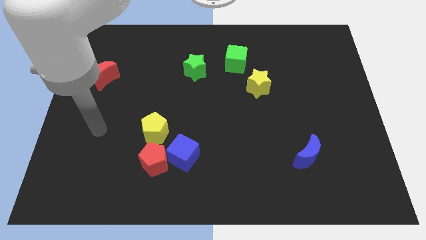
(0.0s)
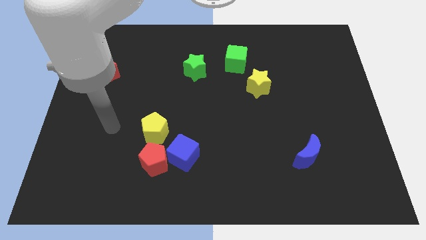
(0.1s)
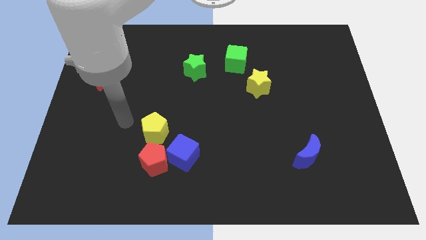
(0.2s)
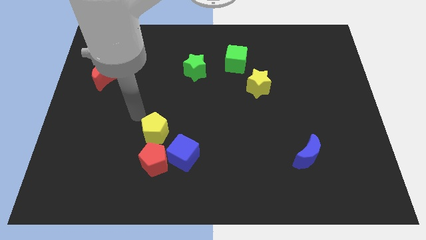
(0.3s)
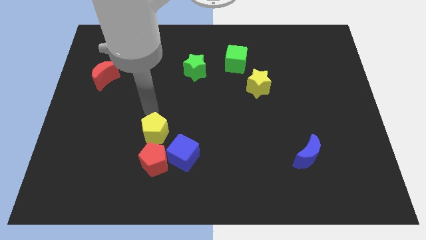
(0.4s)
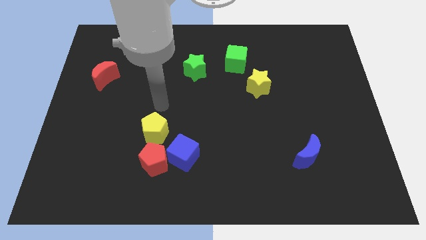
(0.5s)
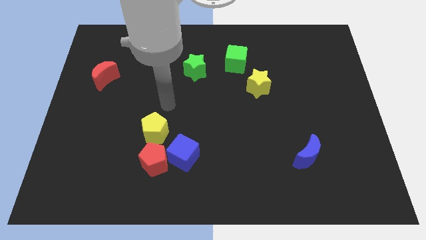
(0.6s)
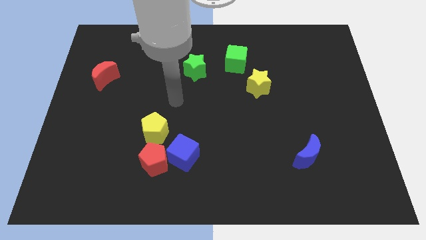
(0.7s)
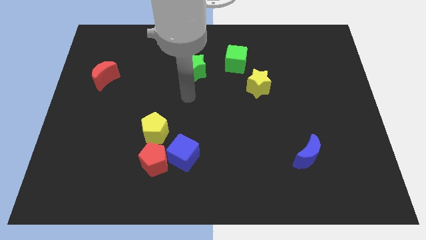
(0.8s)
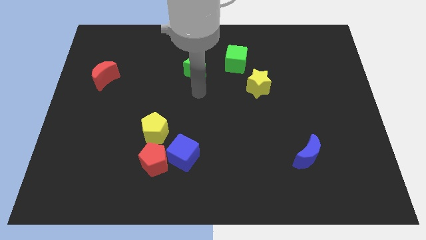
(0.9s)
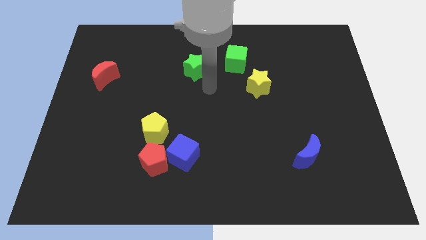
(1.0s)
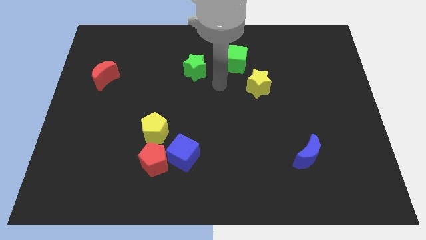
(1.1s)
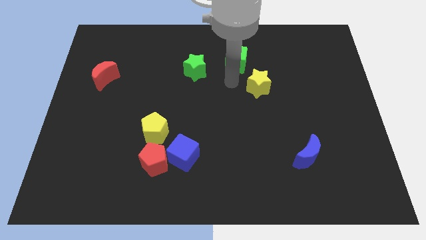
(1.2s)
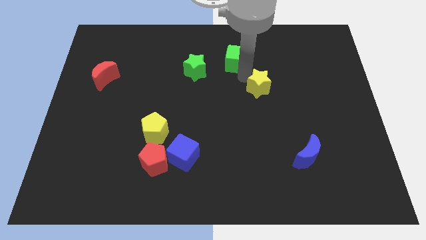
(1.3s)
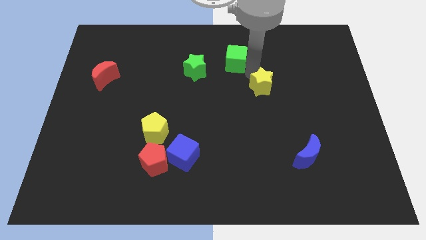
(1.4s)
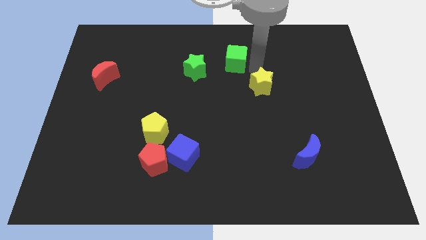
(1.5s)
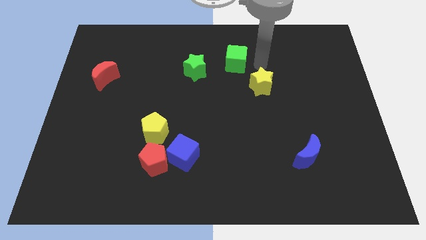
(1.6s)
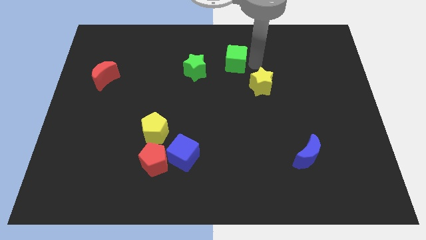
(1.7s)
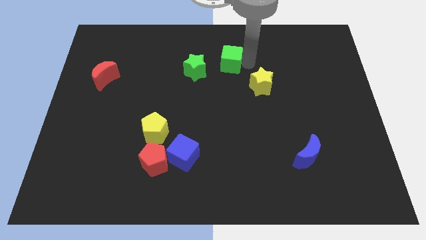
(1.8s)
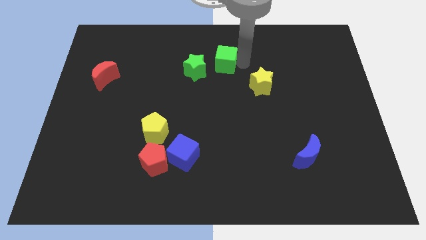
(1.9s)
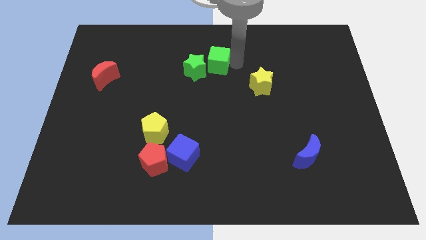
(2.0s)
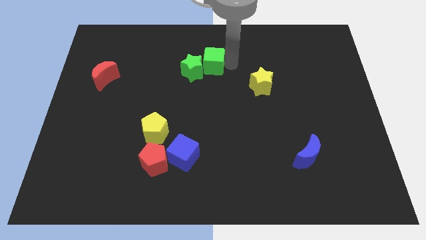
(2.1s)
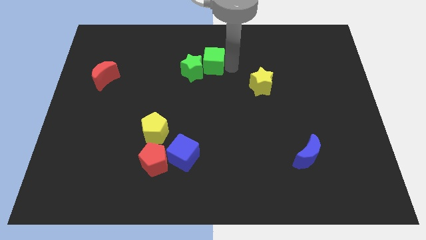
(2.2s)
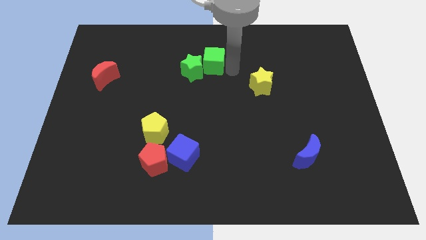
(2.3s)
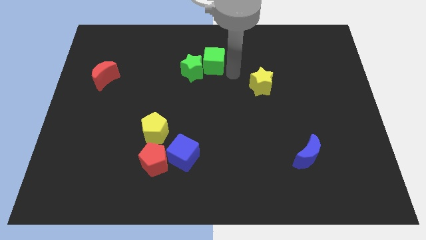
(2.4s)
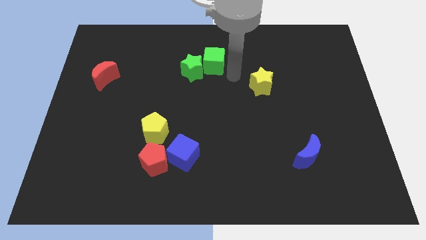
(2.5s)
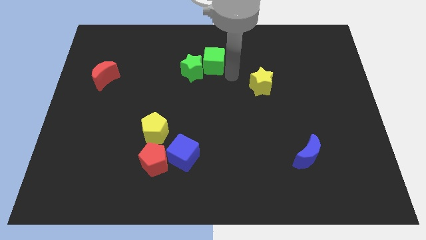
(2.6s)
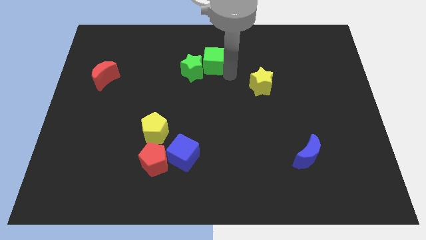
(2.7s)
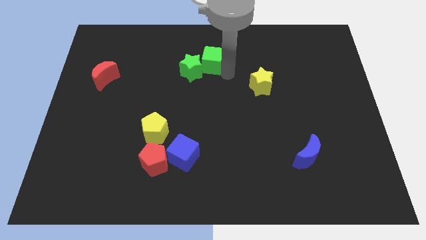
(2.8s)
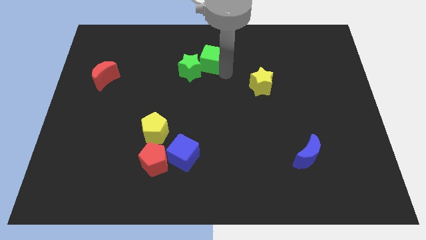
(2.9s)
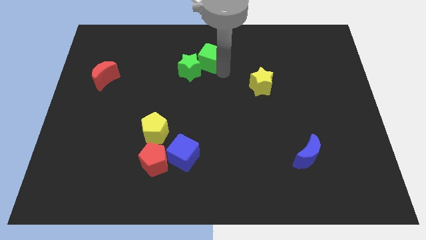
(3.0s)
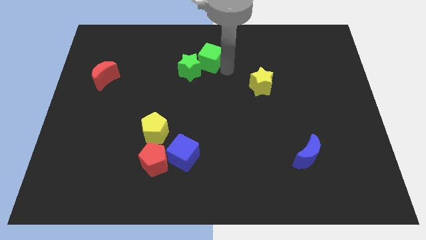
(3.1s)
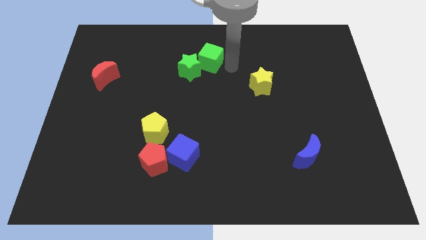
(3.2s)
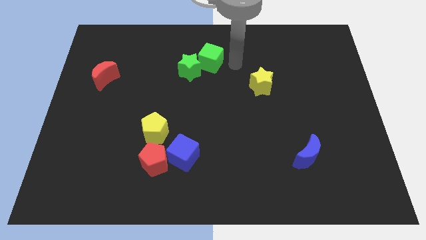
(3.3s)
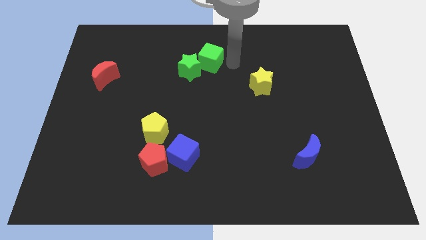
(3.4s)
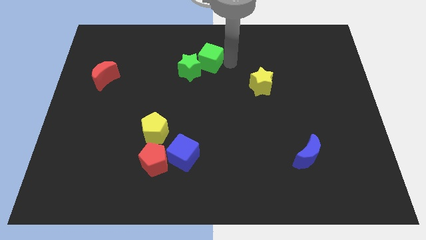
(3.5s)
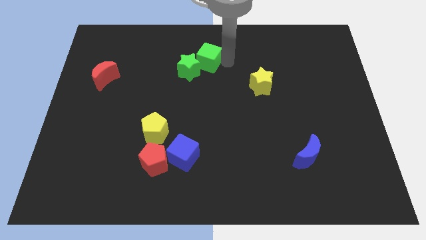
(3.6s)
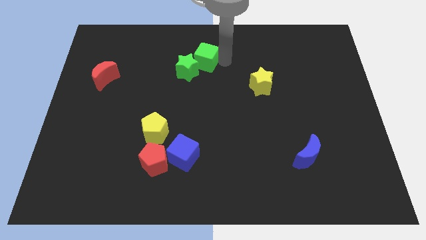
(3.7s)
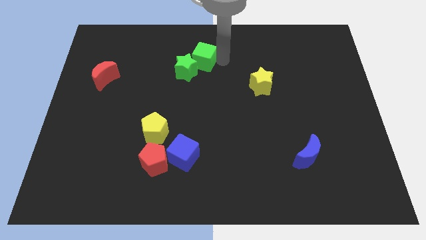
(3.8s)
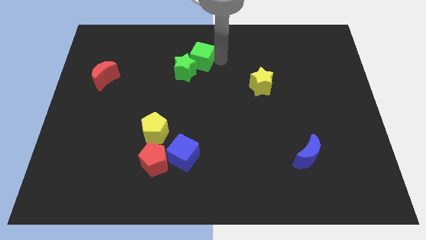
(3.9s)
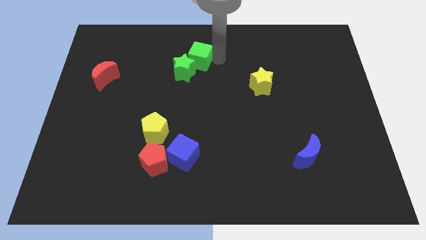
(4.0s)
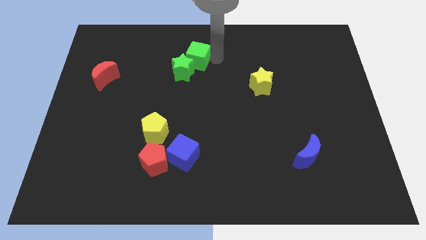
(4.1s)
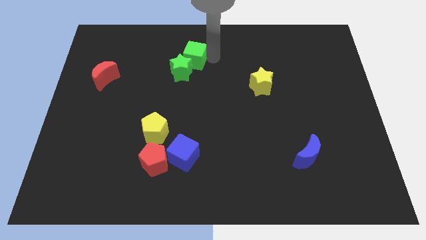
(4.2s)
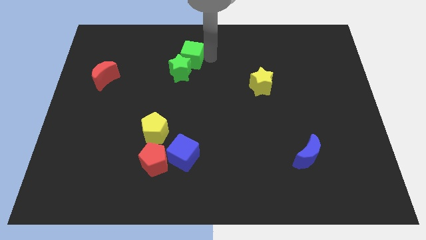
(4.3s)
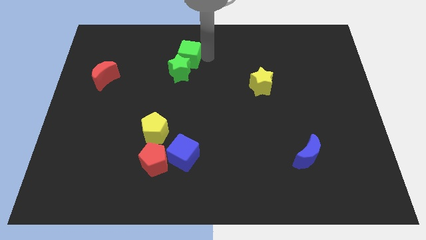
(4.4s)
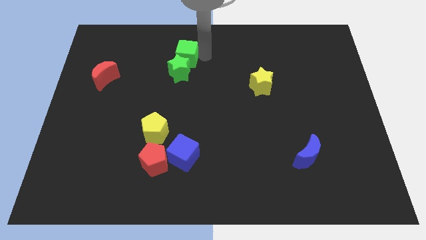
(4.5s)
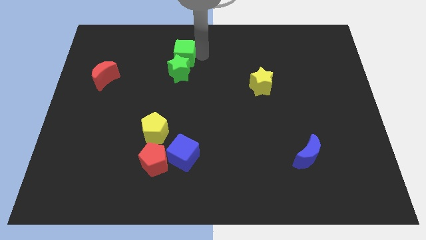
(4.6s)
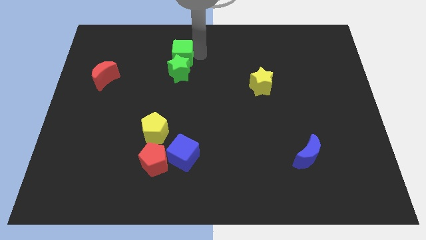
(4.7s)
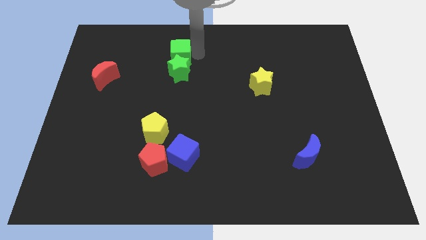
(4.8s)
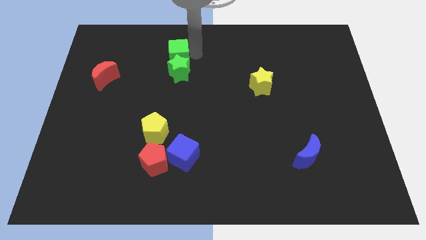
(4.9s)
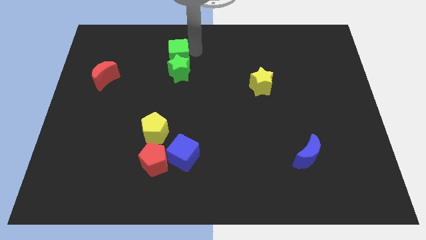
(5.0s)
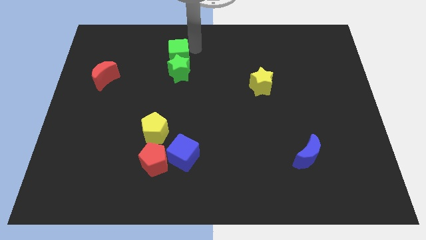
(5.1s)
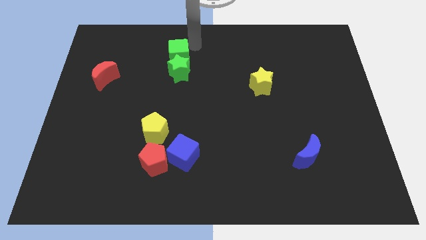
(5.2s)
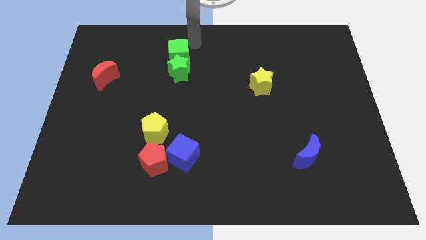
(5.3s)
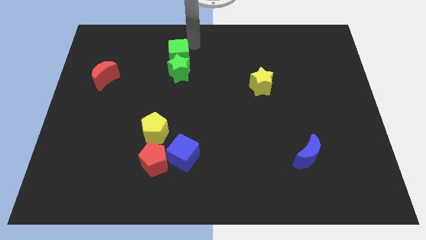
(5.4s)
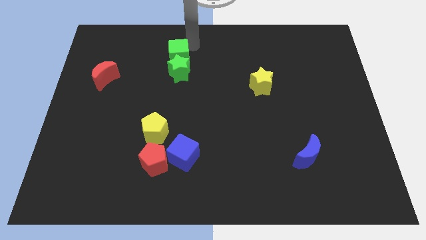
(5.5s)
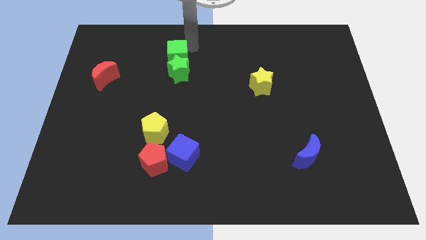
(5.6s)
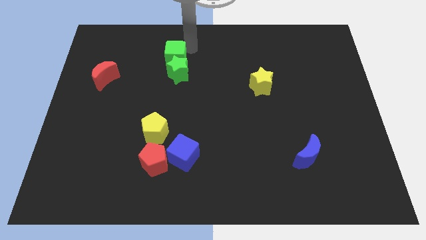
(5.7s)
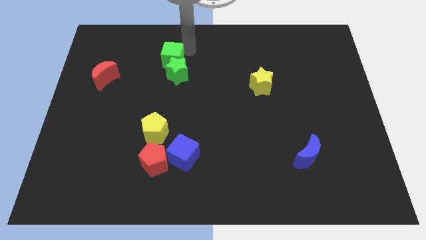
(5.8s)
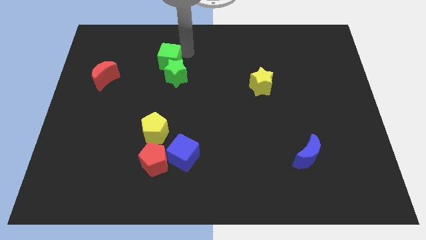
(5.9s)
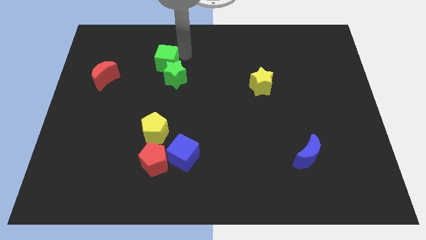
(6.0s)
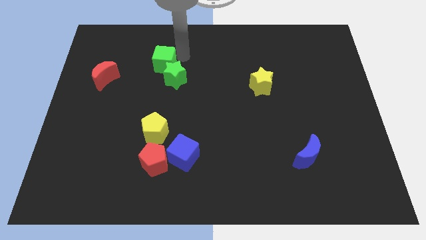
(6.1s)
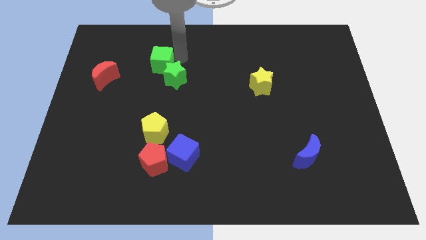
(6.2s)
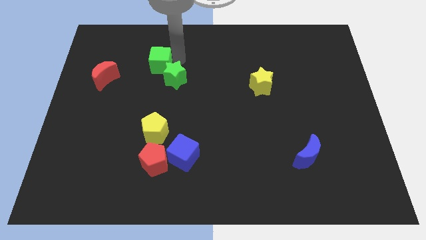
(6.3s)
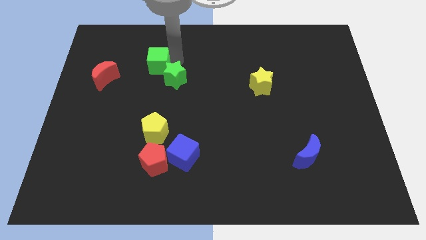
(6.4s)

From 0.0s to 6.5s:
slide the green cube to the right side of the red moon

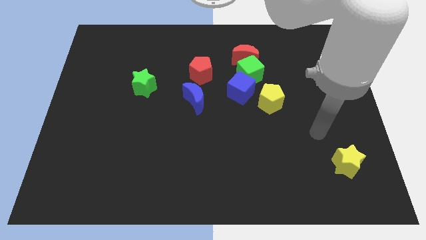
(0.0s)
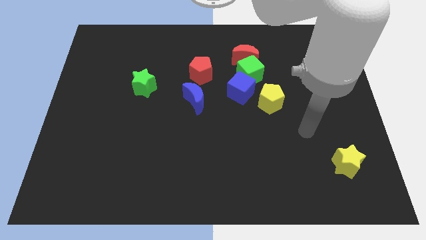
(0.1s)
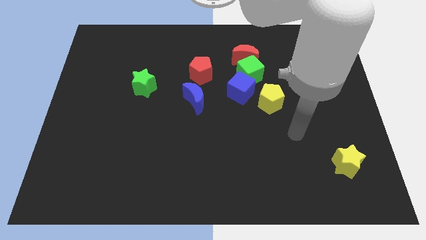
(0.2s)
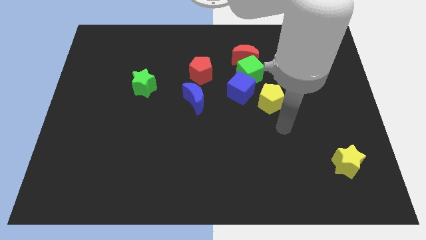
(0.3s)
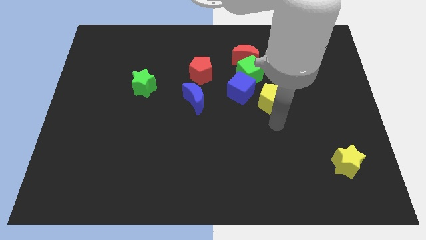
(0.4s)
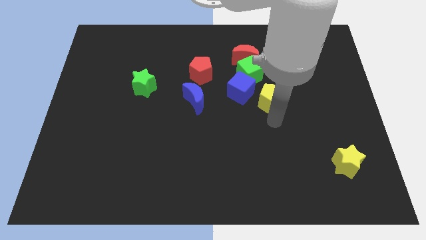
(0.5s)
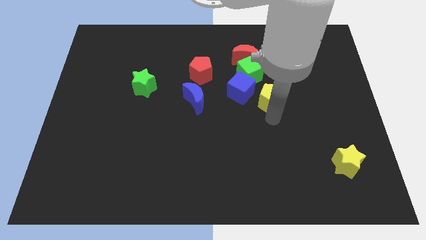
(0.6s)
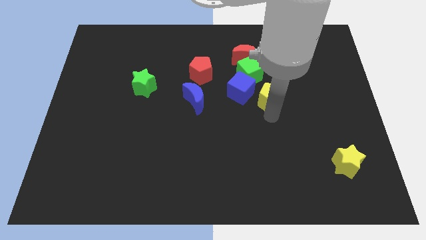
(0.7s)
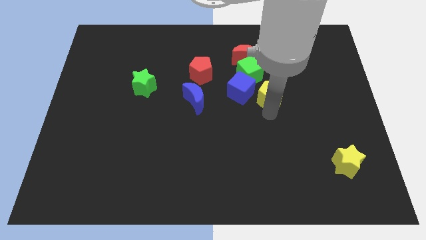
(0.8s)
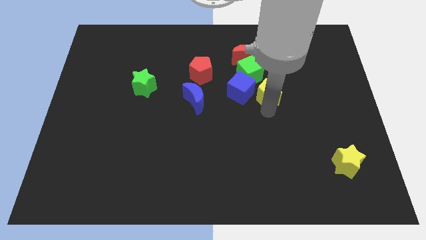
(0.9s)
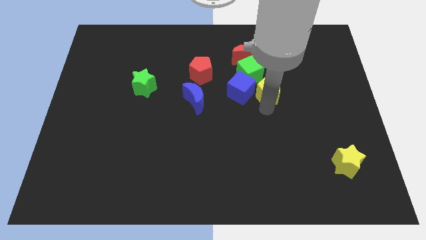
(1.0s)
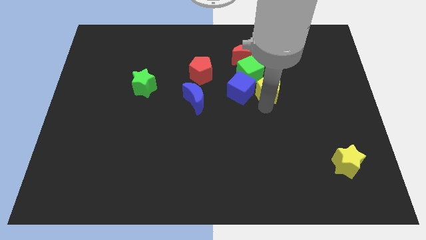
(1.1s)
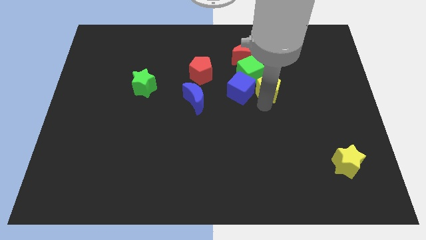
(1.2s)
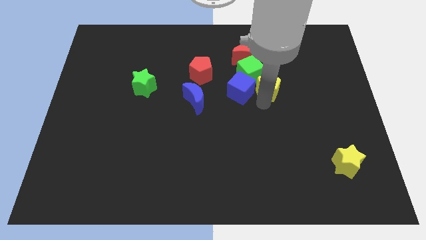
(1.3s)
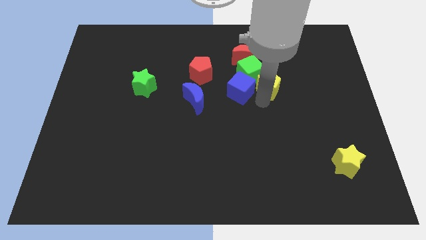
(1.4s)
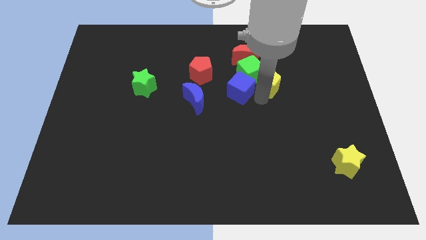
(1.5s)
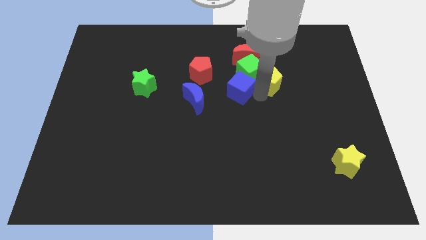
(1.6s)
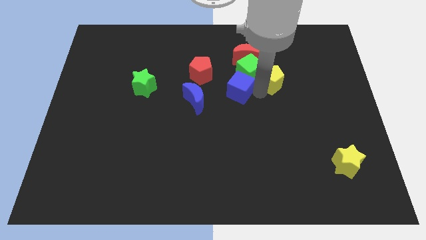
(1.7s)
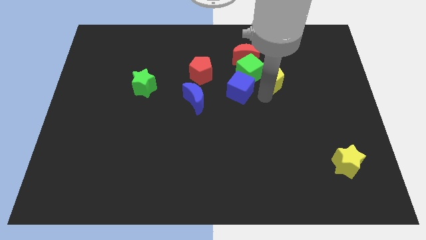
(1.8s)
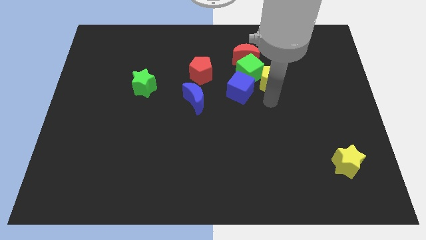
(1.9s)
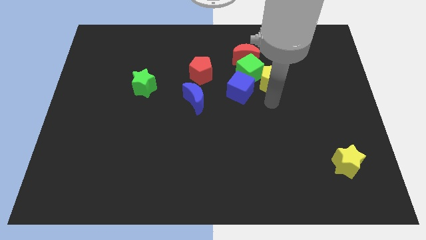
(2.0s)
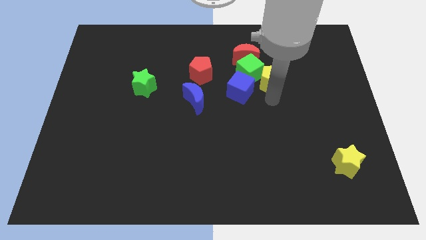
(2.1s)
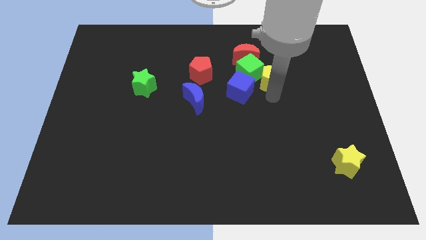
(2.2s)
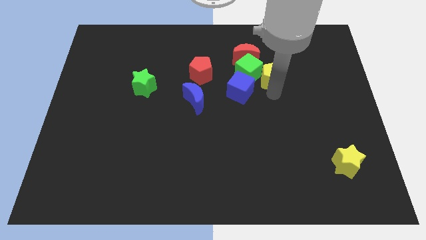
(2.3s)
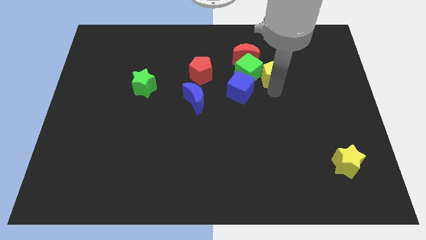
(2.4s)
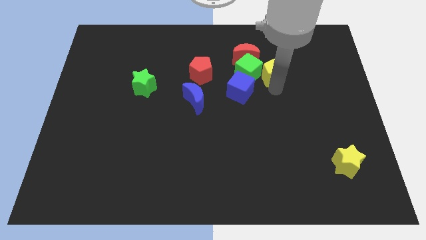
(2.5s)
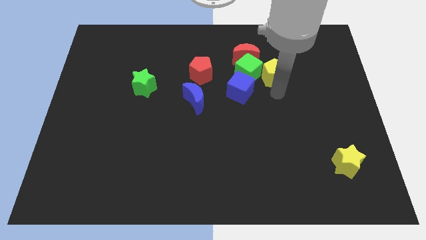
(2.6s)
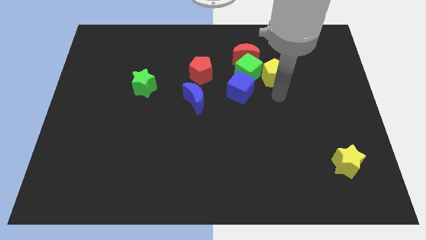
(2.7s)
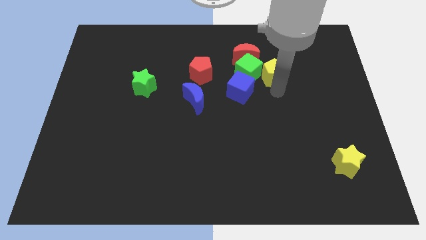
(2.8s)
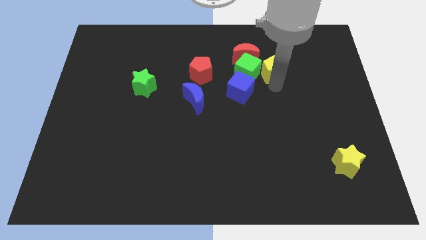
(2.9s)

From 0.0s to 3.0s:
put the yellow pentagon diagonally up and to the right of the green cube
